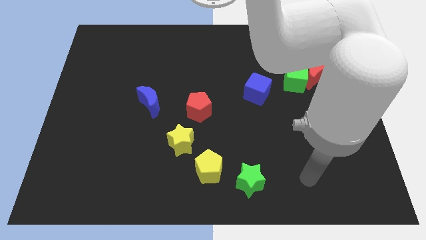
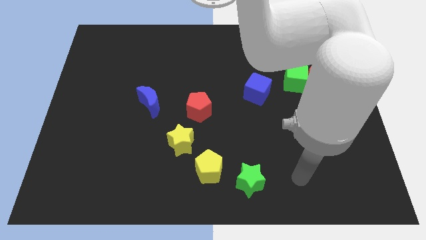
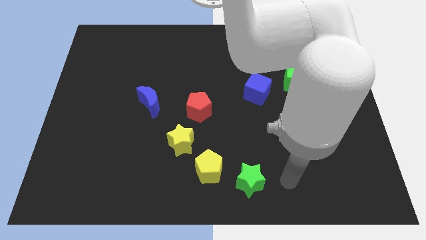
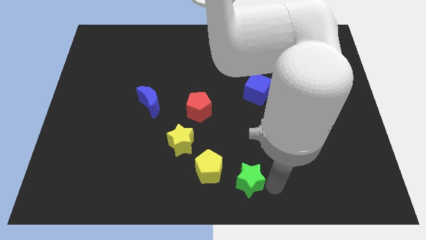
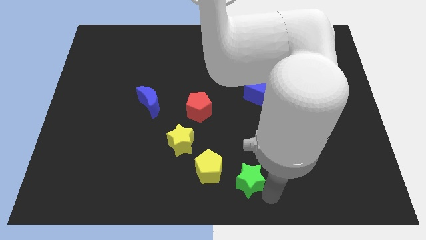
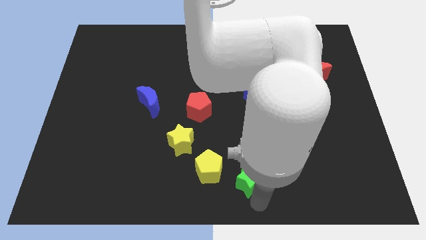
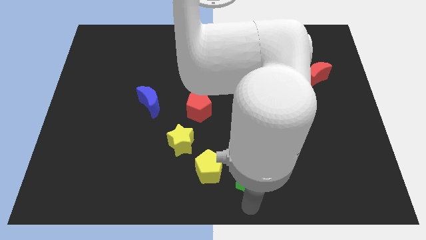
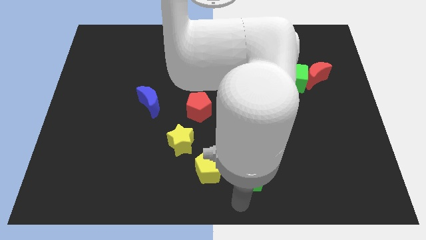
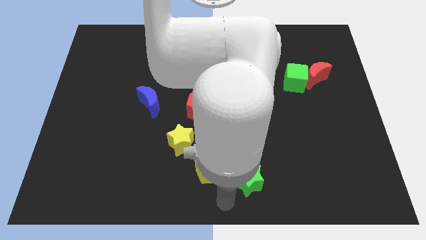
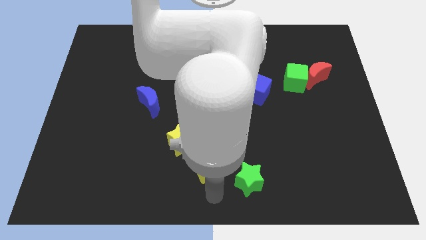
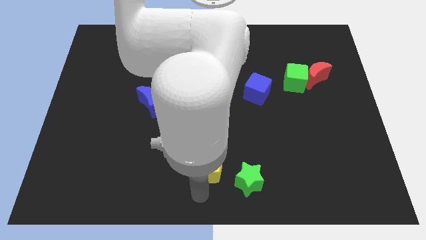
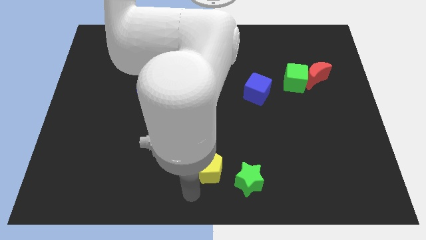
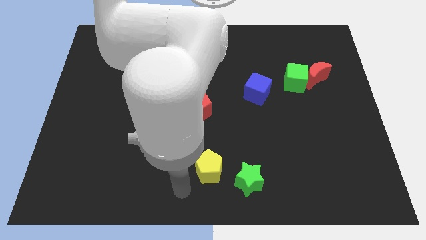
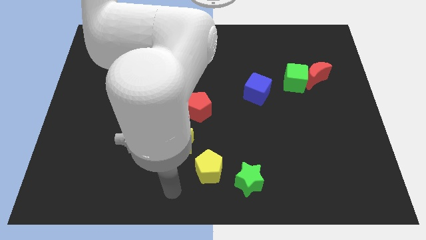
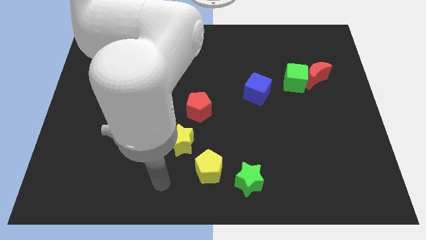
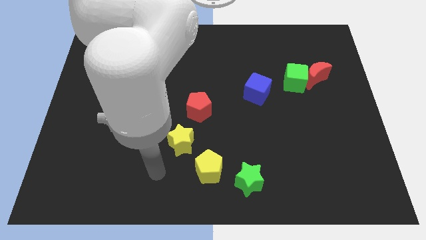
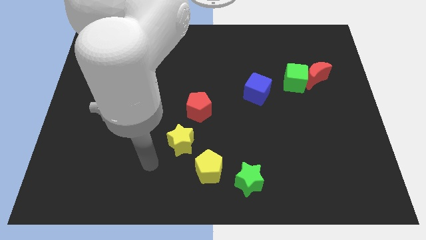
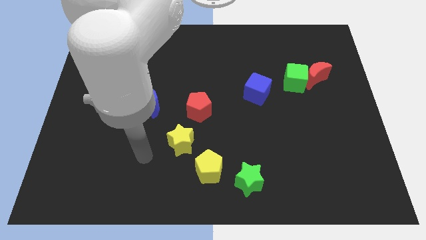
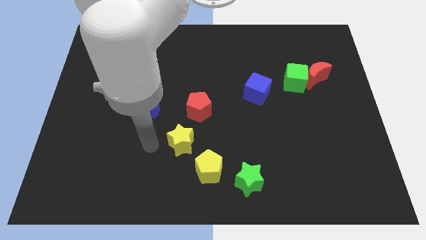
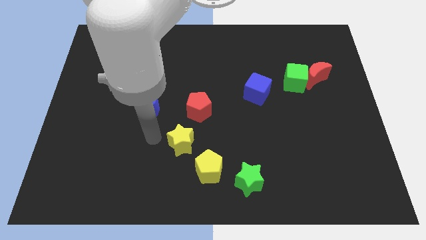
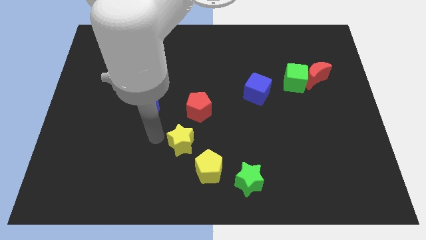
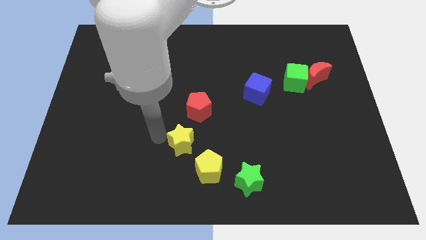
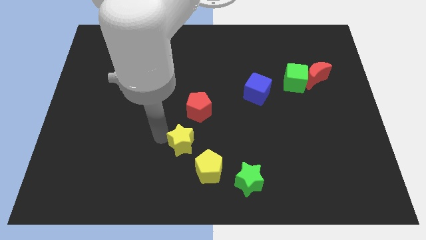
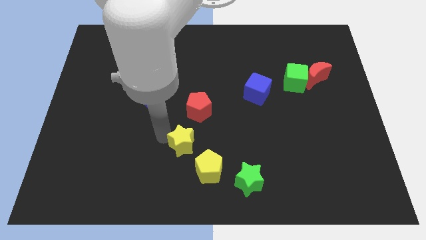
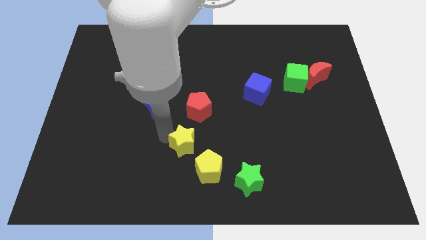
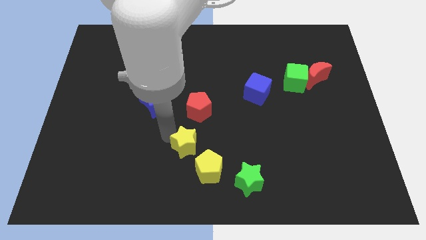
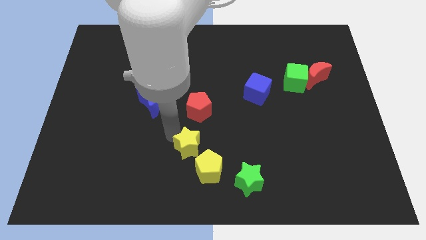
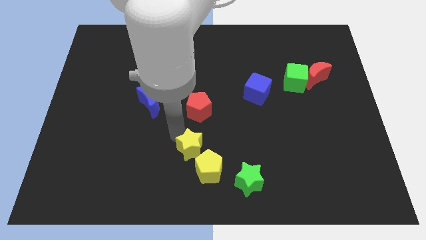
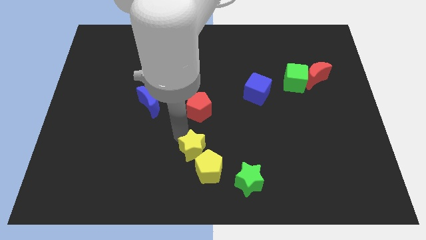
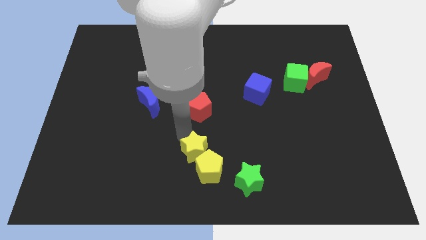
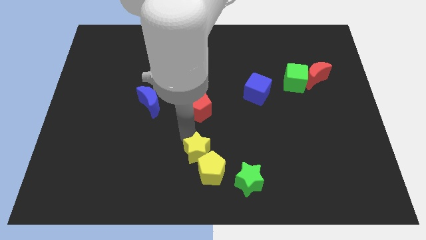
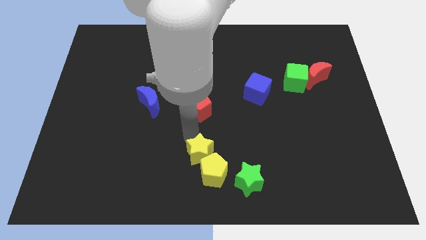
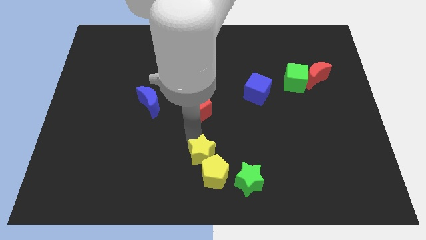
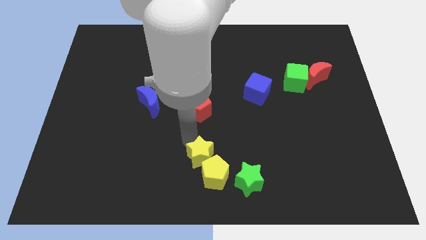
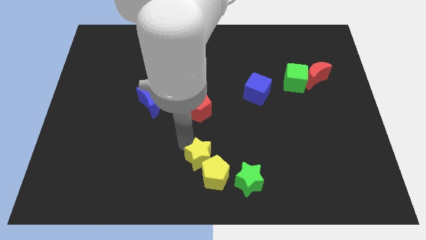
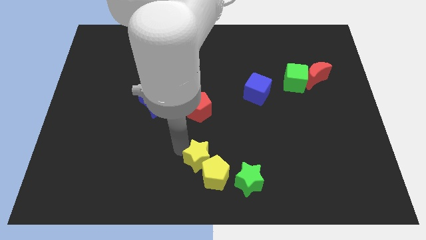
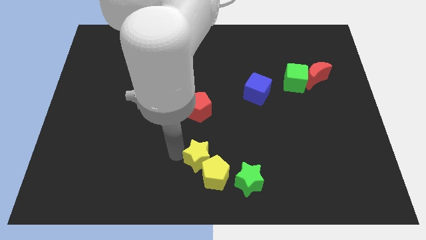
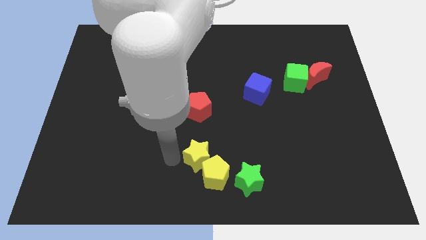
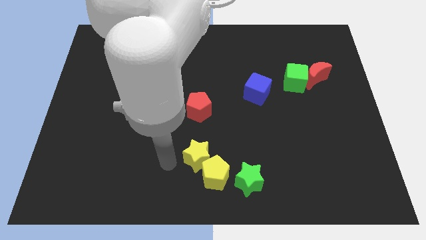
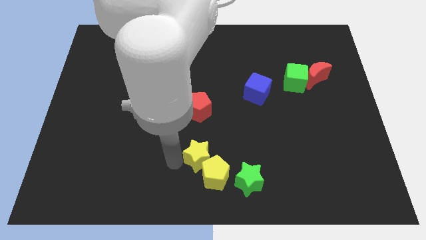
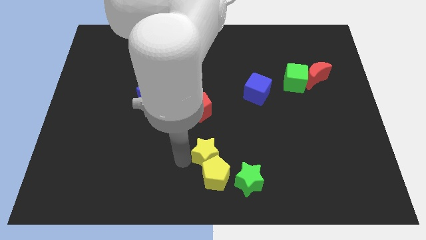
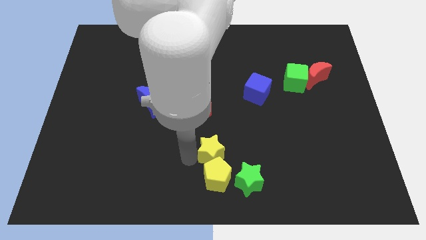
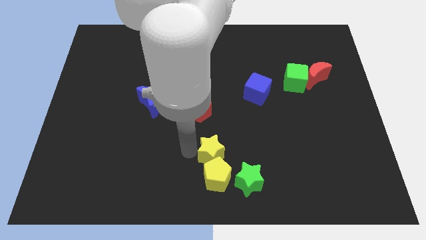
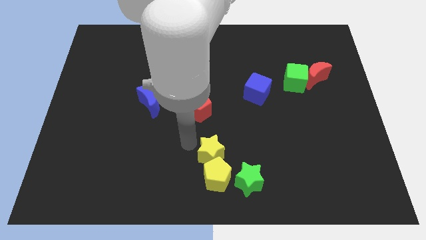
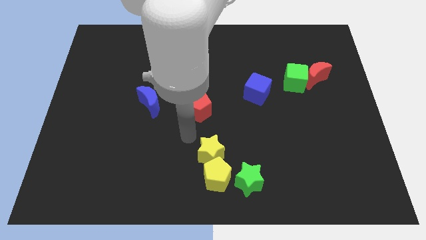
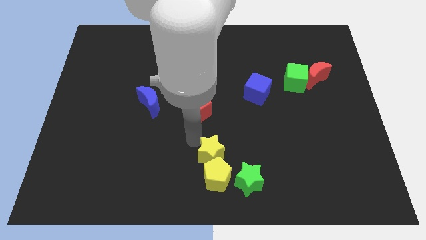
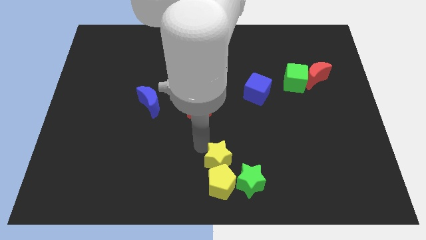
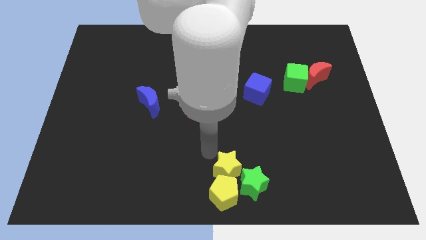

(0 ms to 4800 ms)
slide the yellow star next to the green star

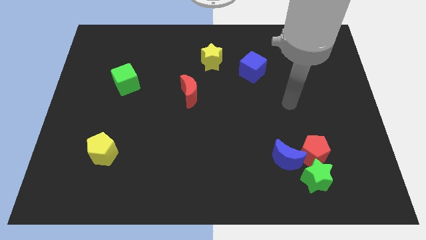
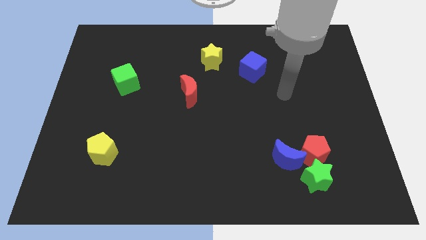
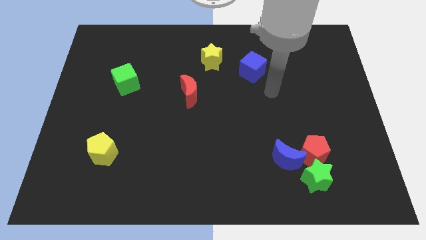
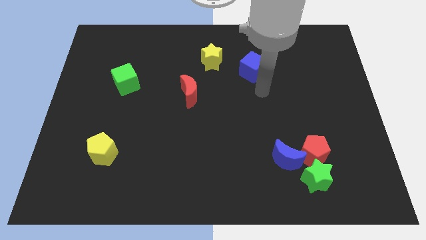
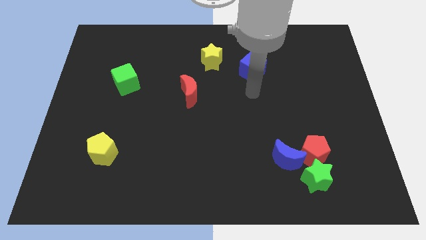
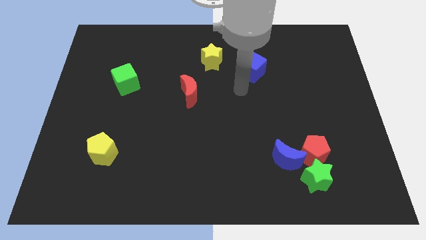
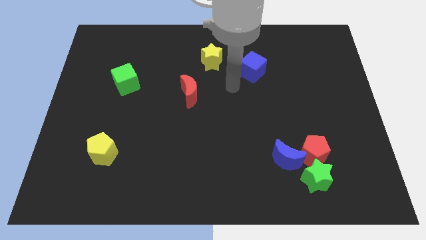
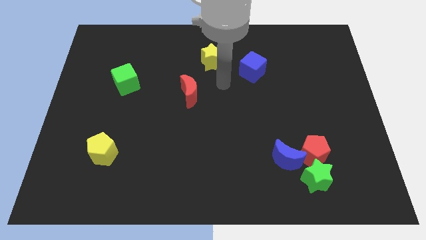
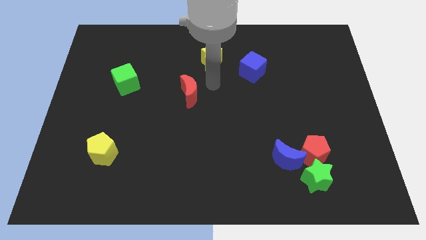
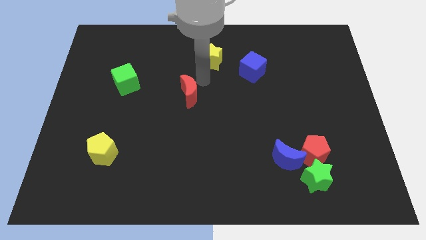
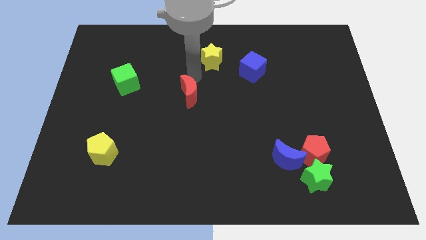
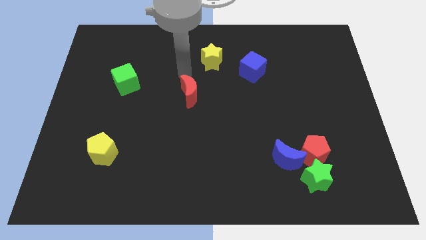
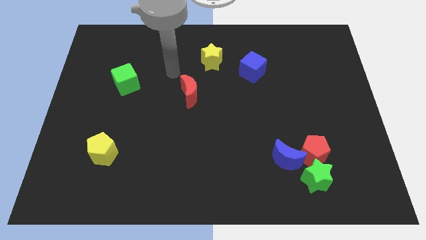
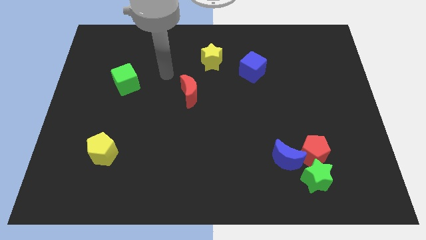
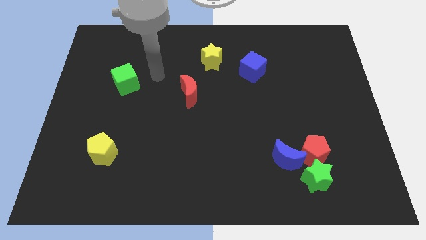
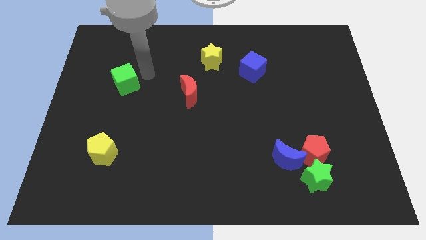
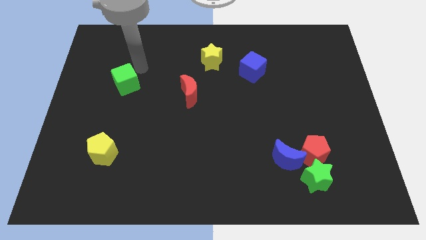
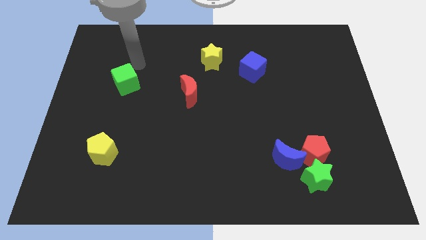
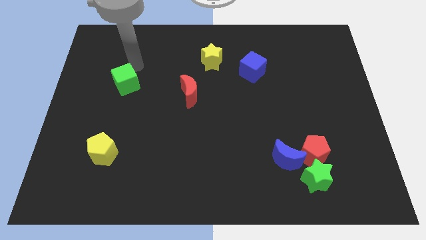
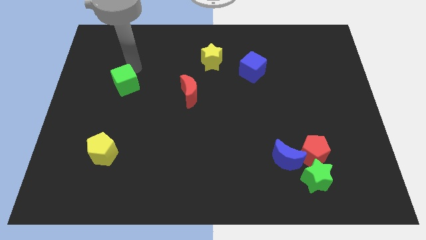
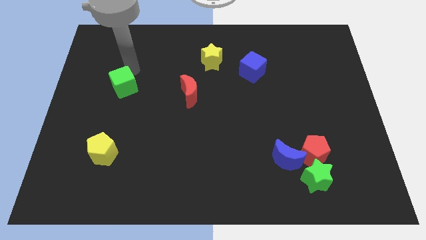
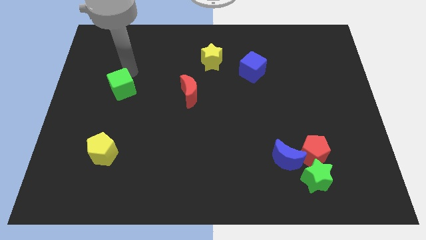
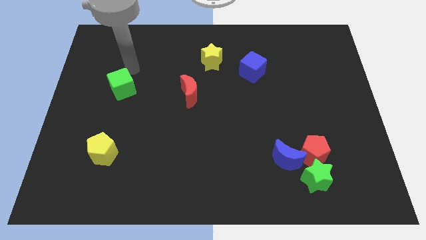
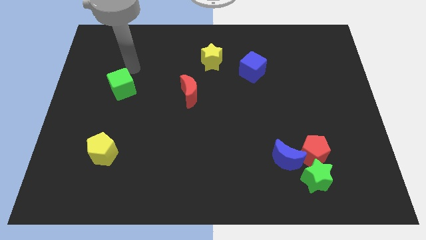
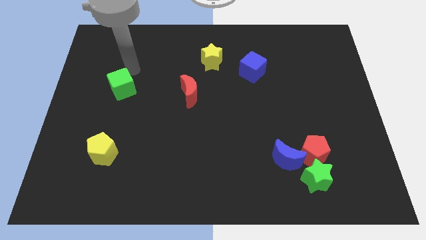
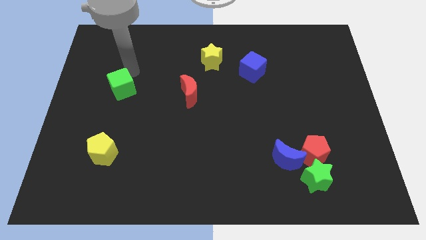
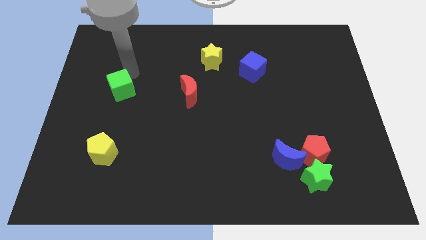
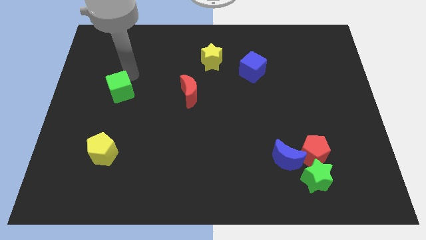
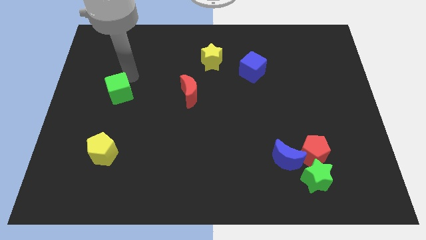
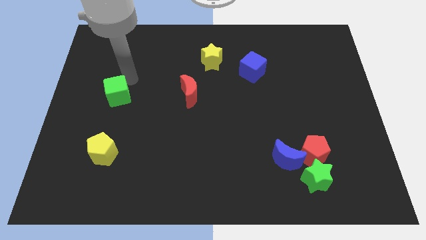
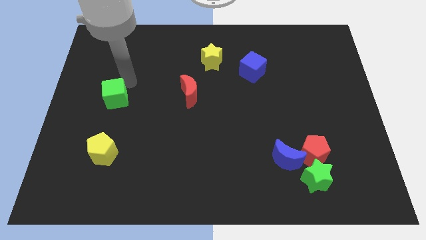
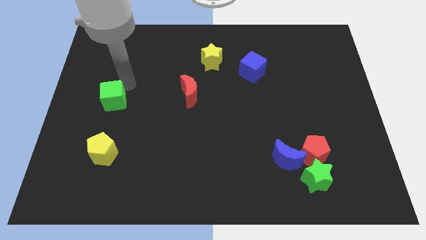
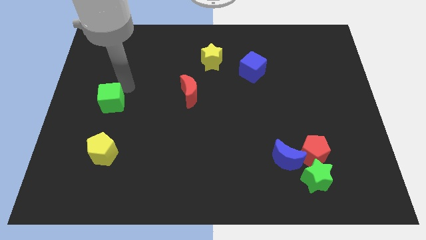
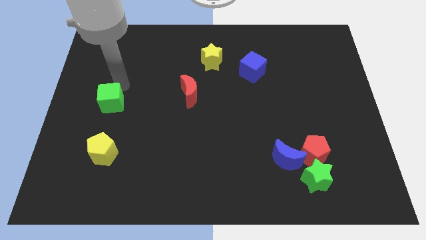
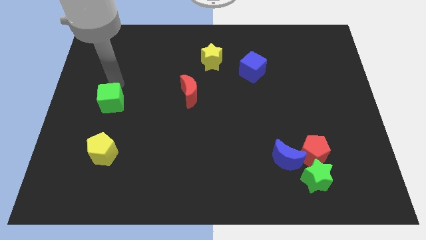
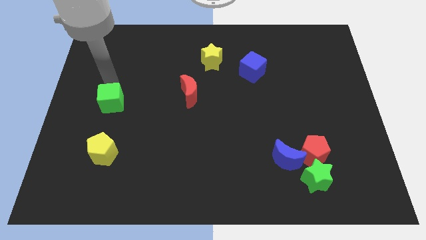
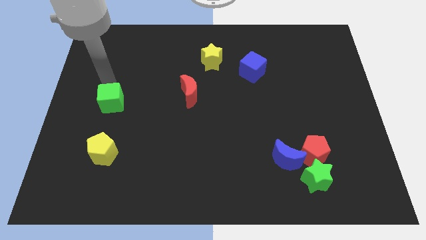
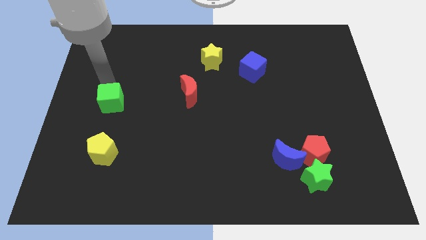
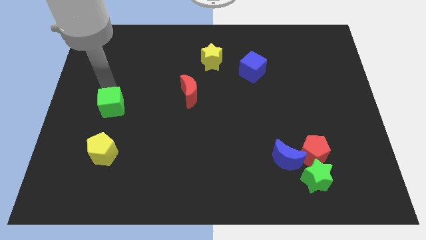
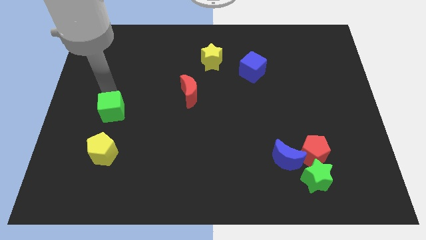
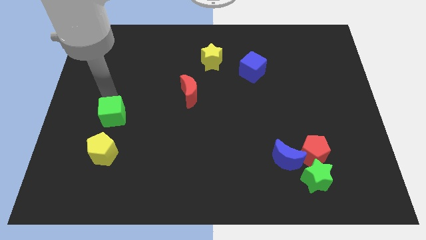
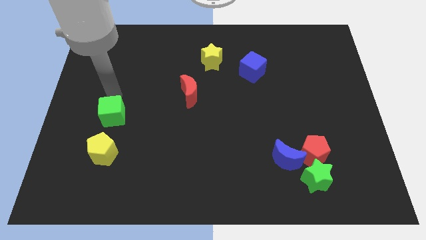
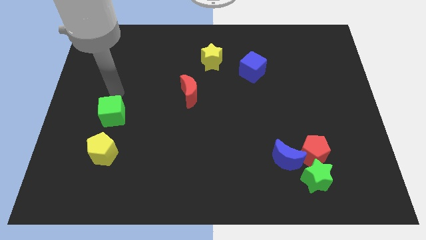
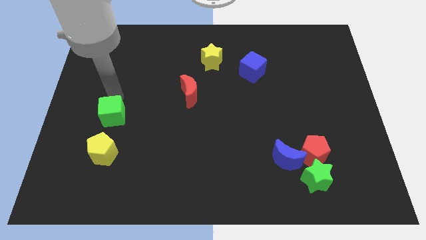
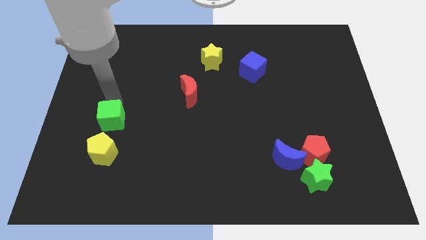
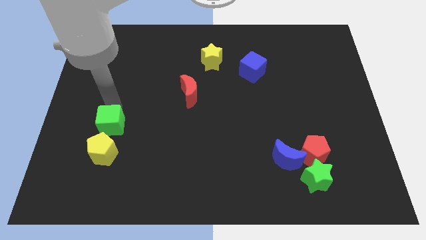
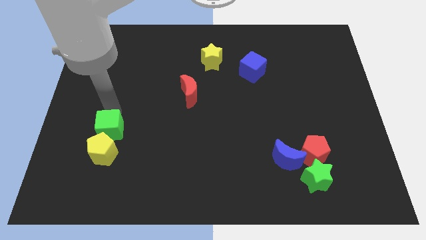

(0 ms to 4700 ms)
push the green cube towards the yellow pentagon
